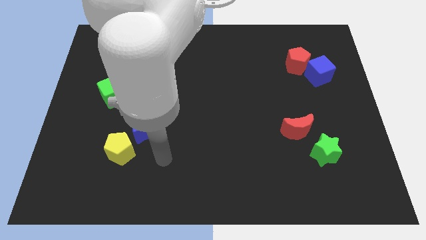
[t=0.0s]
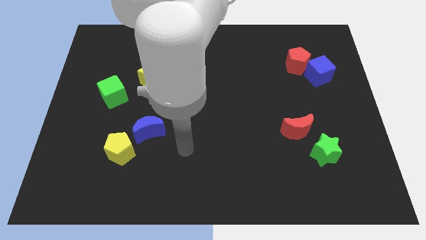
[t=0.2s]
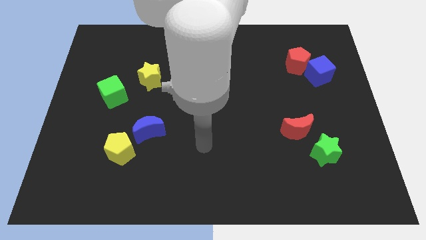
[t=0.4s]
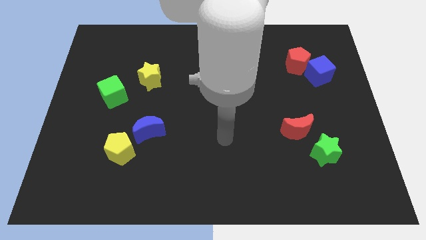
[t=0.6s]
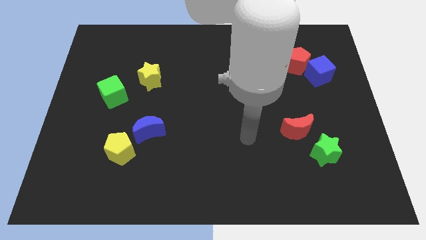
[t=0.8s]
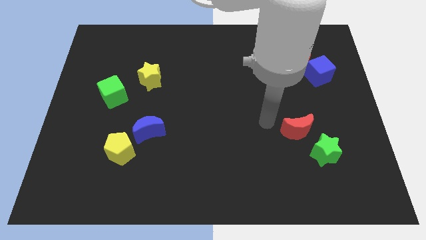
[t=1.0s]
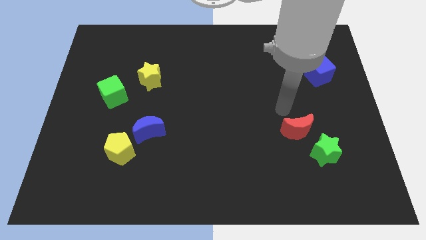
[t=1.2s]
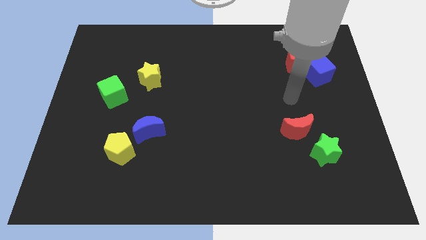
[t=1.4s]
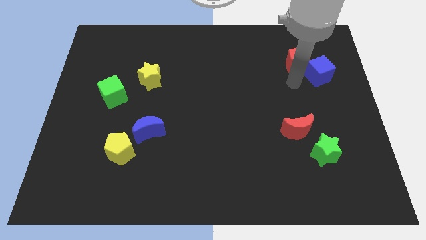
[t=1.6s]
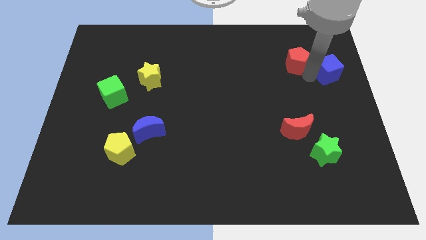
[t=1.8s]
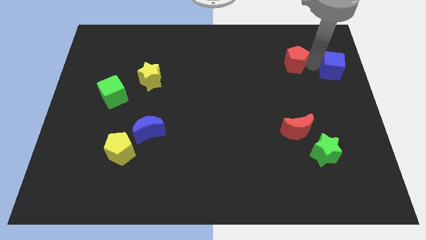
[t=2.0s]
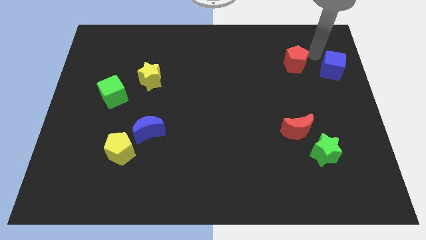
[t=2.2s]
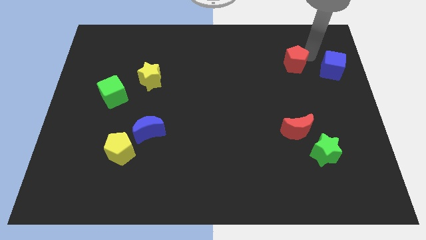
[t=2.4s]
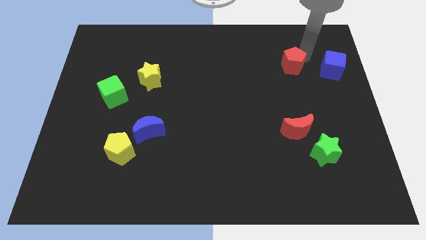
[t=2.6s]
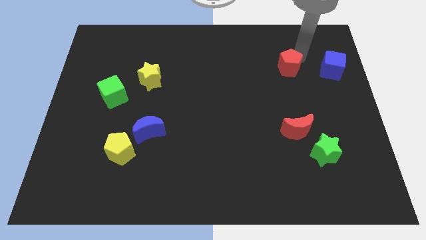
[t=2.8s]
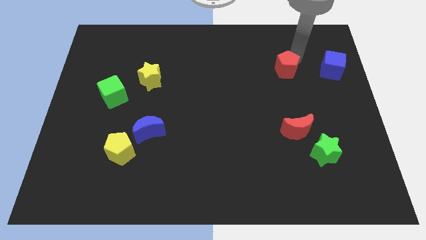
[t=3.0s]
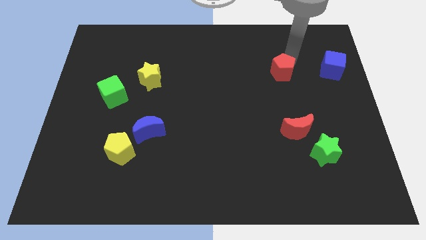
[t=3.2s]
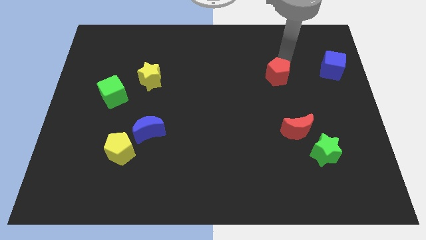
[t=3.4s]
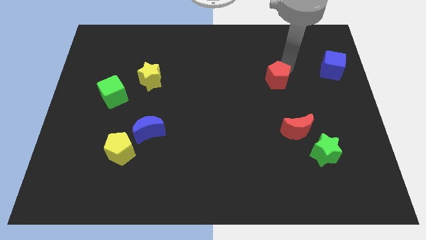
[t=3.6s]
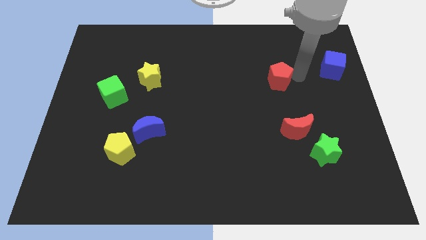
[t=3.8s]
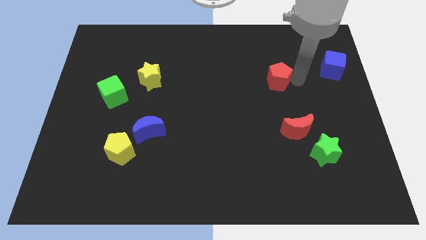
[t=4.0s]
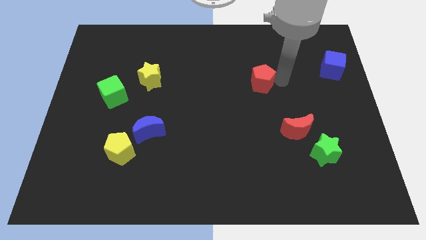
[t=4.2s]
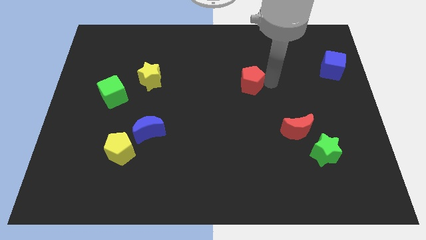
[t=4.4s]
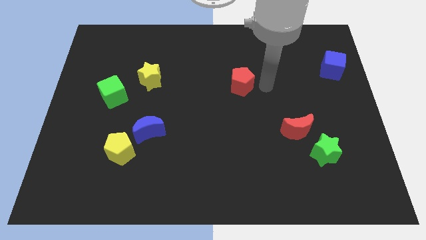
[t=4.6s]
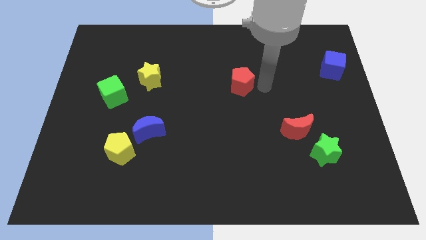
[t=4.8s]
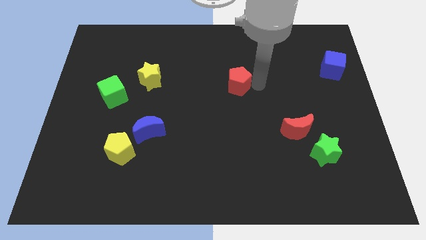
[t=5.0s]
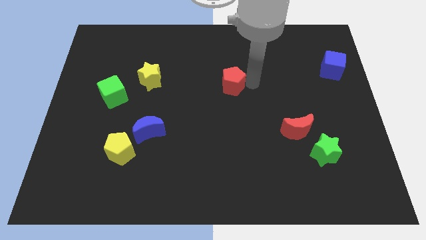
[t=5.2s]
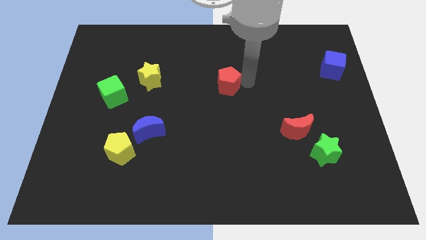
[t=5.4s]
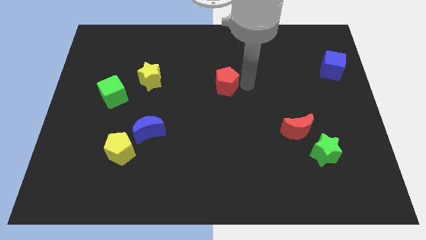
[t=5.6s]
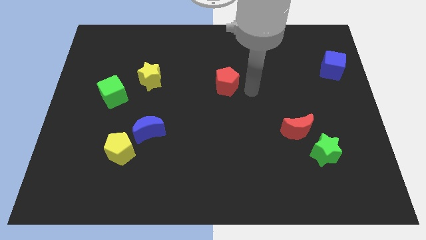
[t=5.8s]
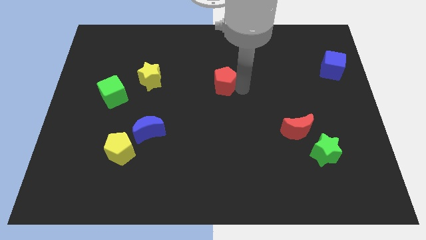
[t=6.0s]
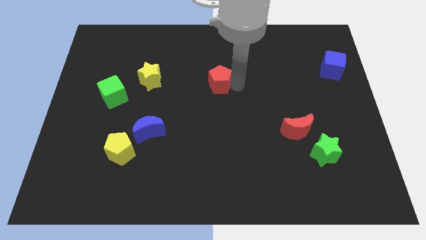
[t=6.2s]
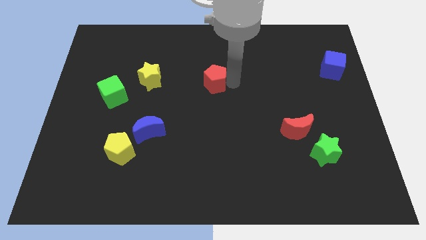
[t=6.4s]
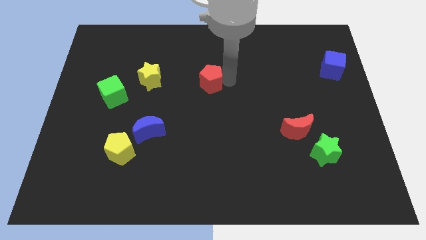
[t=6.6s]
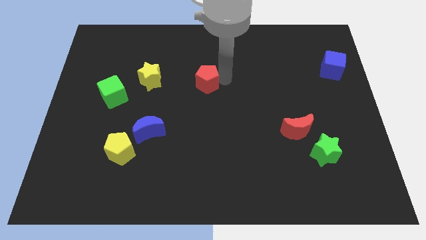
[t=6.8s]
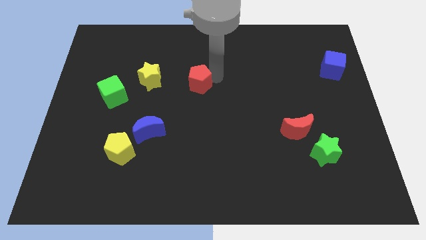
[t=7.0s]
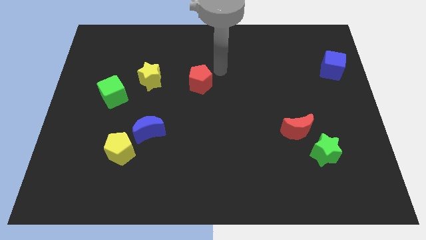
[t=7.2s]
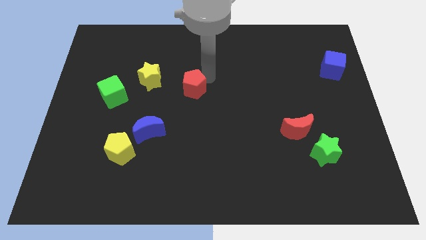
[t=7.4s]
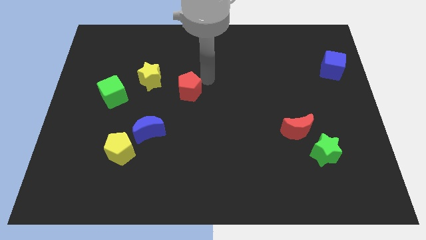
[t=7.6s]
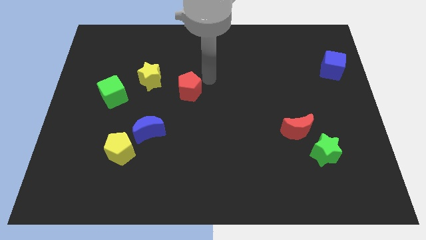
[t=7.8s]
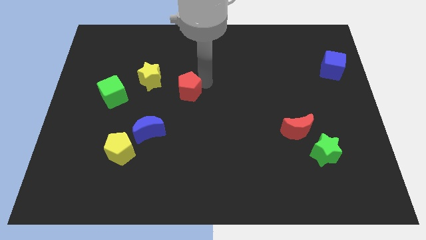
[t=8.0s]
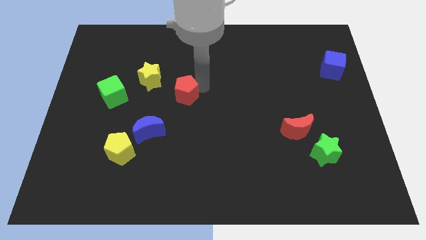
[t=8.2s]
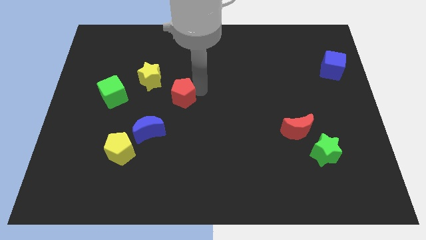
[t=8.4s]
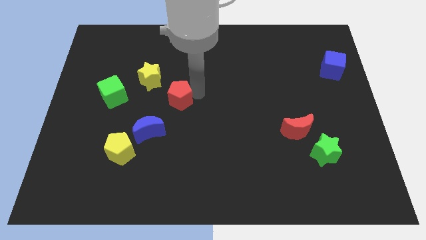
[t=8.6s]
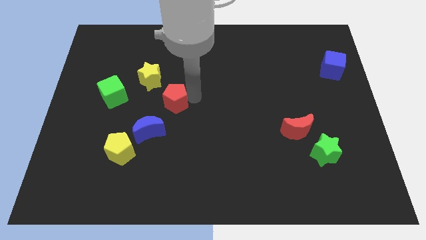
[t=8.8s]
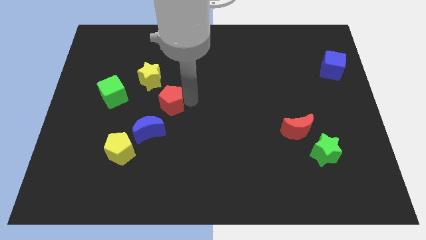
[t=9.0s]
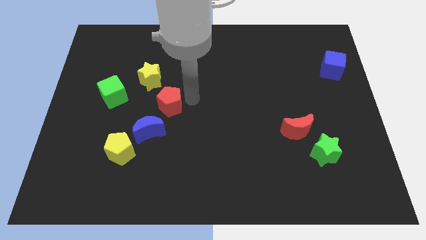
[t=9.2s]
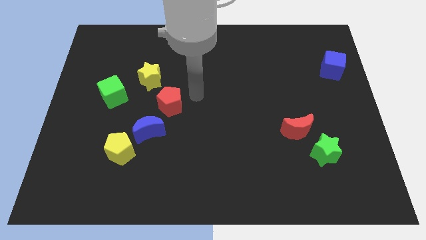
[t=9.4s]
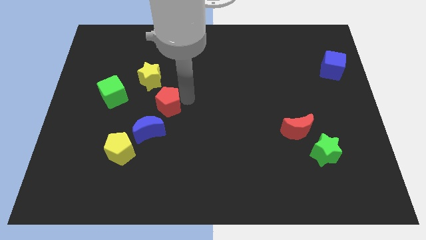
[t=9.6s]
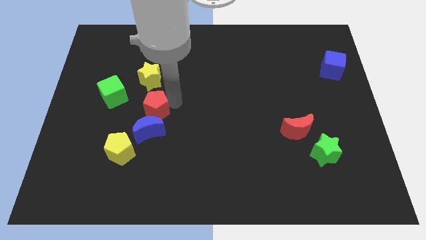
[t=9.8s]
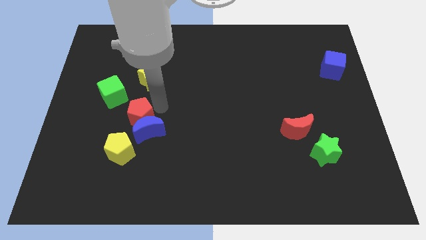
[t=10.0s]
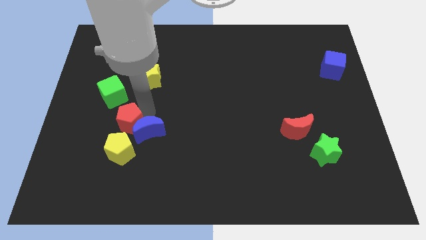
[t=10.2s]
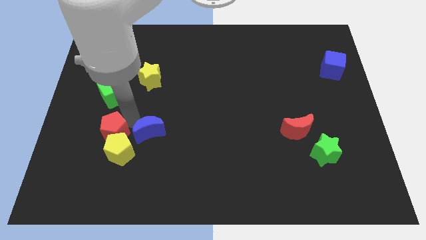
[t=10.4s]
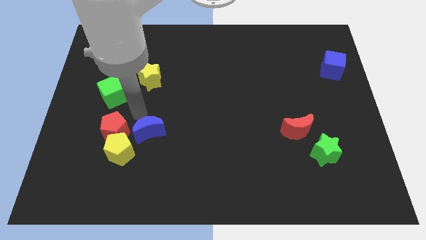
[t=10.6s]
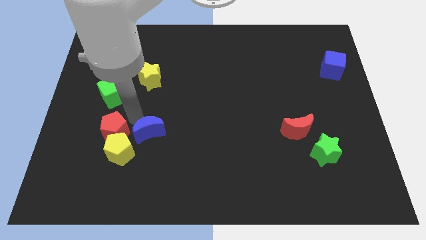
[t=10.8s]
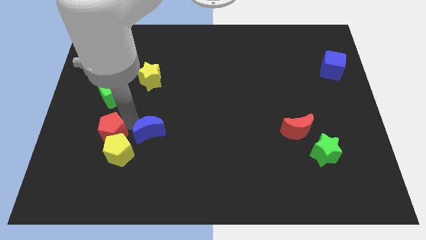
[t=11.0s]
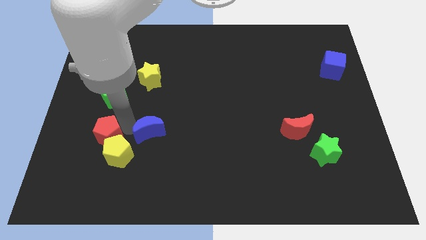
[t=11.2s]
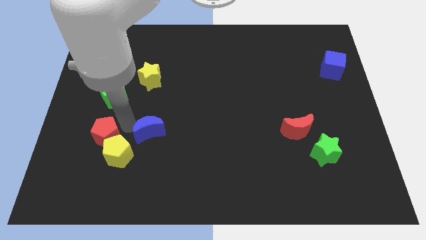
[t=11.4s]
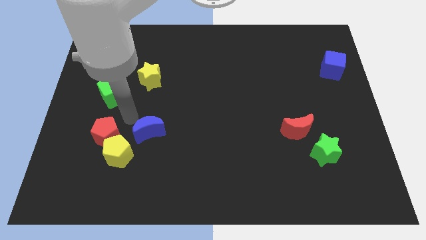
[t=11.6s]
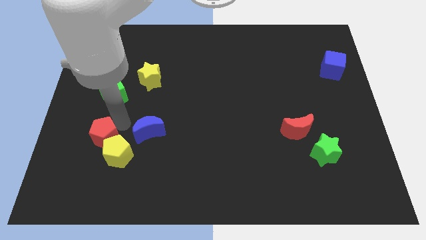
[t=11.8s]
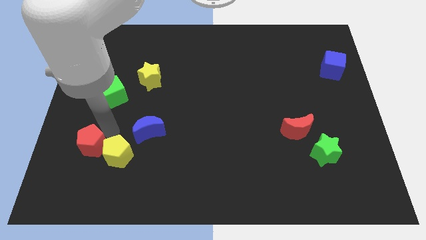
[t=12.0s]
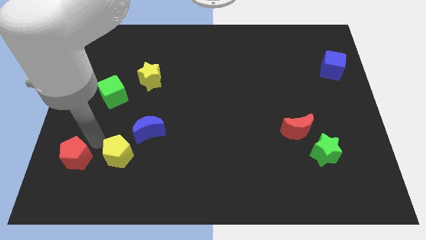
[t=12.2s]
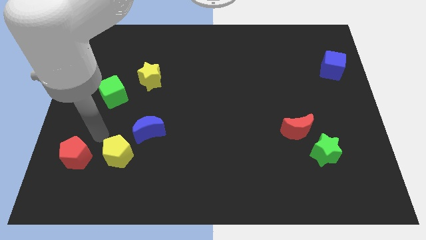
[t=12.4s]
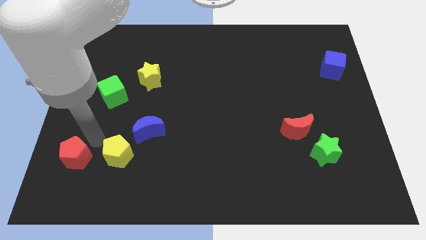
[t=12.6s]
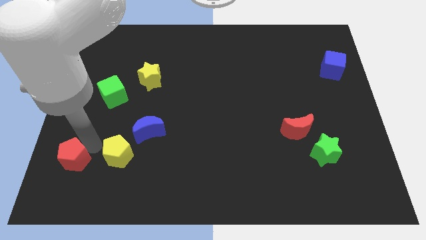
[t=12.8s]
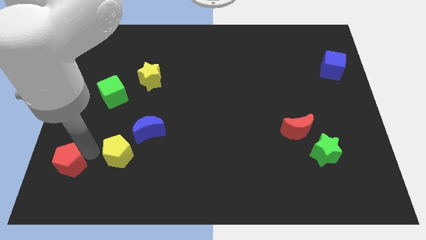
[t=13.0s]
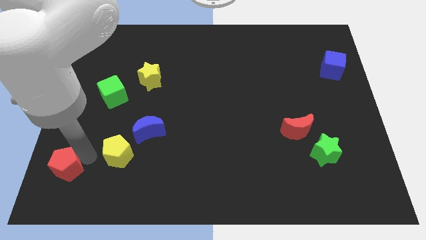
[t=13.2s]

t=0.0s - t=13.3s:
slide the red pentagon to the lower left corner

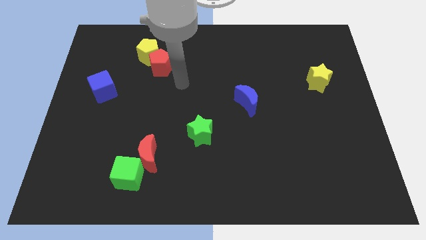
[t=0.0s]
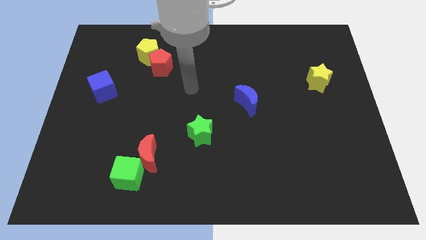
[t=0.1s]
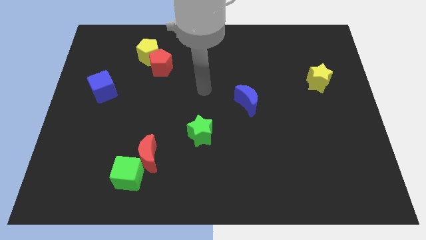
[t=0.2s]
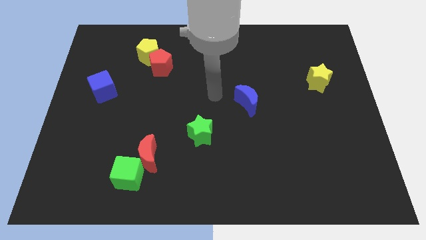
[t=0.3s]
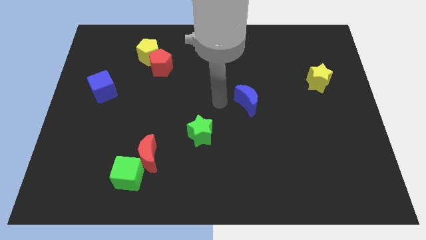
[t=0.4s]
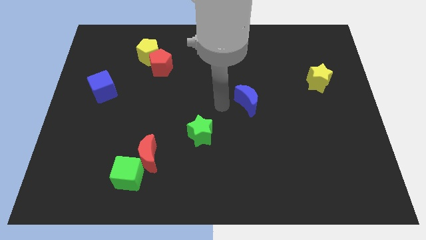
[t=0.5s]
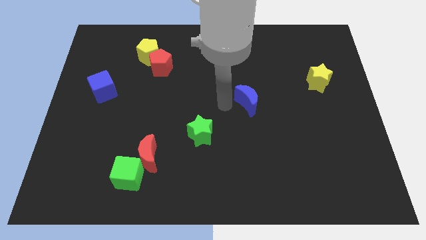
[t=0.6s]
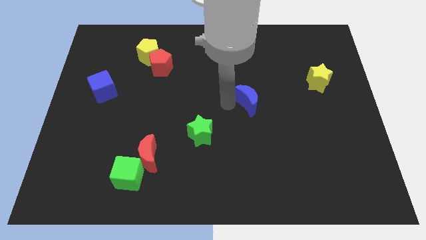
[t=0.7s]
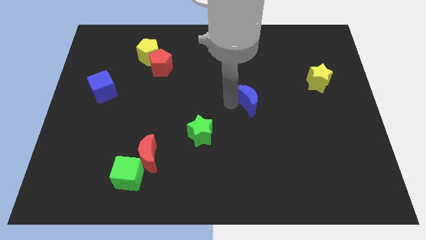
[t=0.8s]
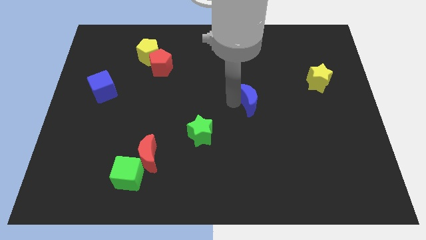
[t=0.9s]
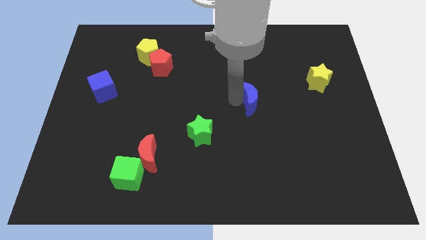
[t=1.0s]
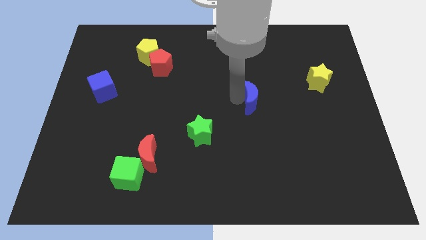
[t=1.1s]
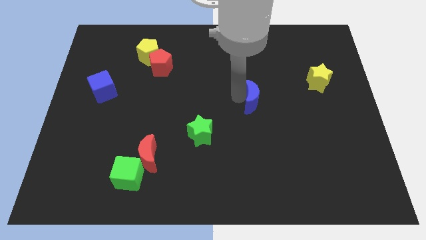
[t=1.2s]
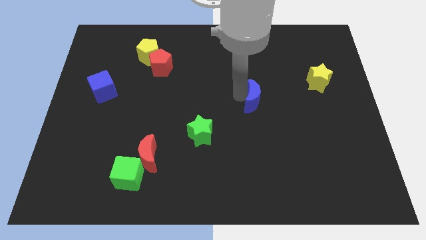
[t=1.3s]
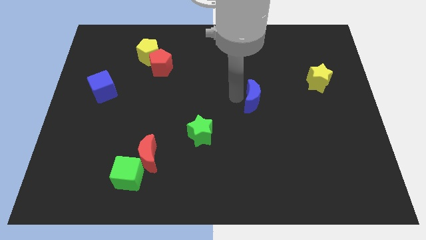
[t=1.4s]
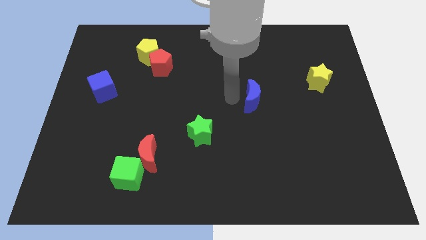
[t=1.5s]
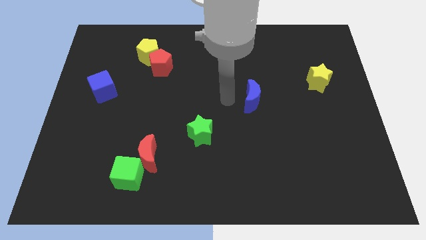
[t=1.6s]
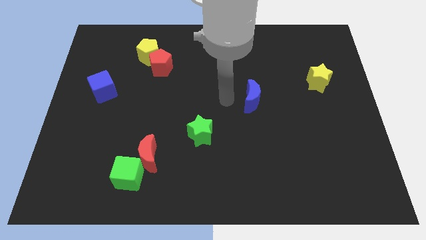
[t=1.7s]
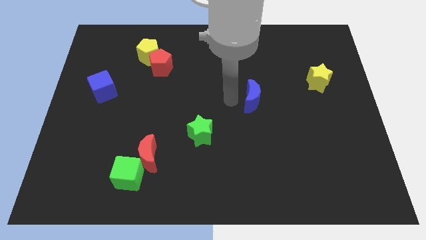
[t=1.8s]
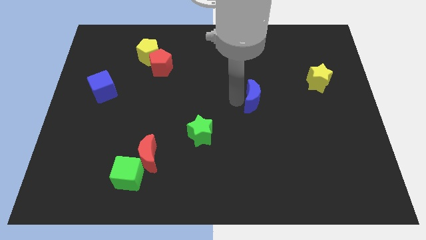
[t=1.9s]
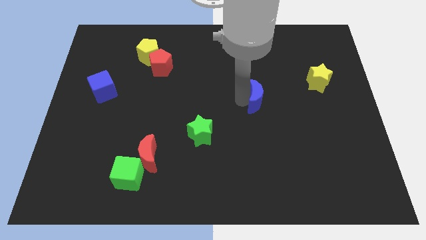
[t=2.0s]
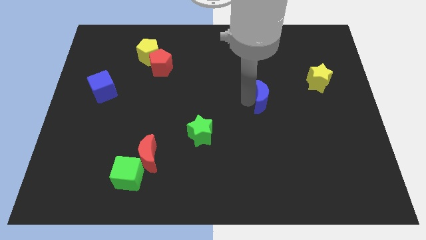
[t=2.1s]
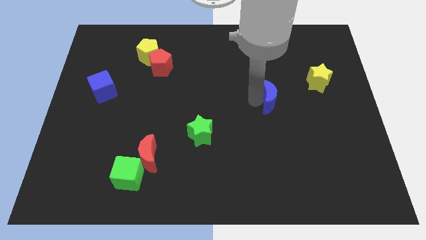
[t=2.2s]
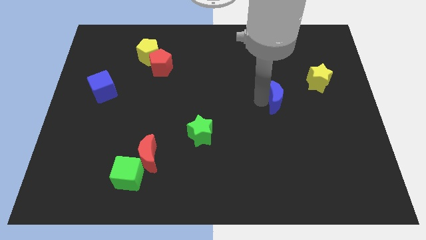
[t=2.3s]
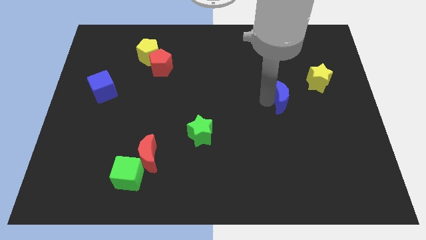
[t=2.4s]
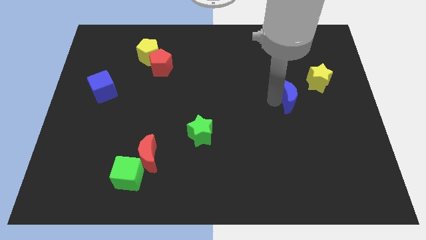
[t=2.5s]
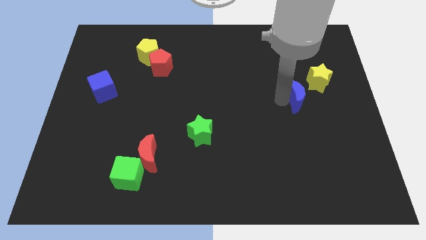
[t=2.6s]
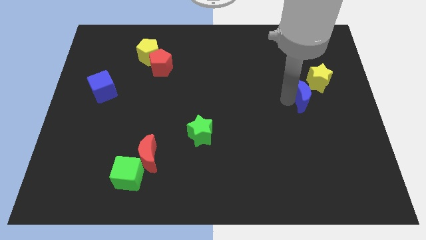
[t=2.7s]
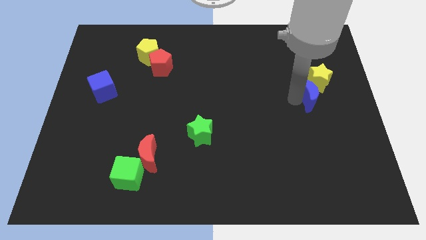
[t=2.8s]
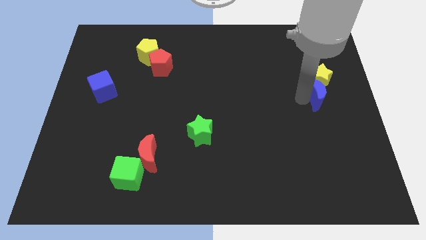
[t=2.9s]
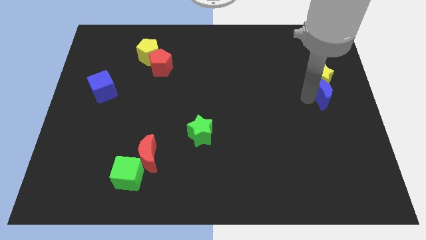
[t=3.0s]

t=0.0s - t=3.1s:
slide the blue moon to the right side of the board
